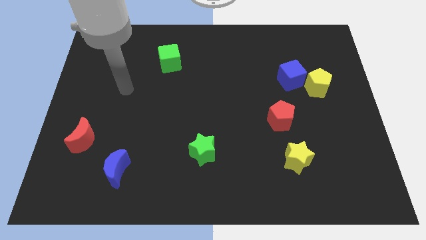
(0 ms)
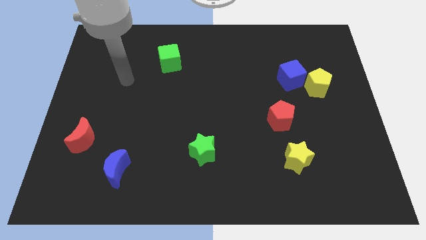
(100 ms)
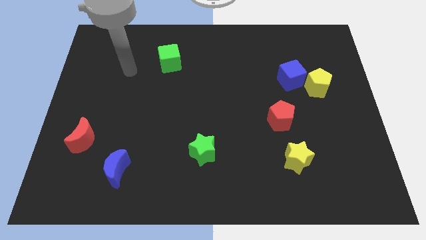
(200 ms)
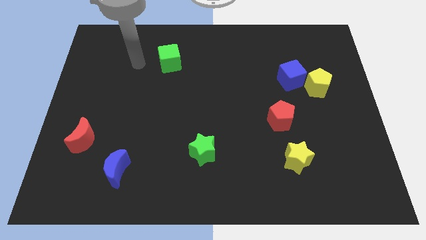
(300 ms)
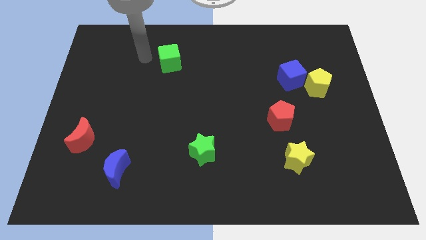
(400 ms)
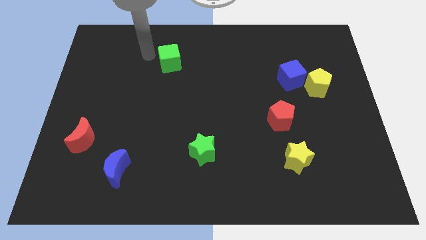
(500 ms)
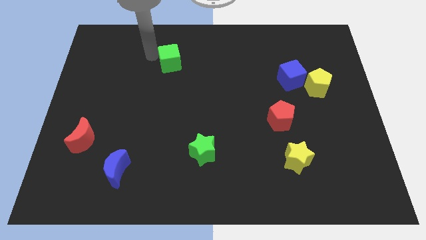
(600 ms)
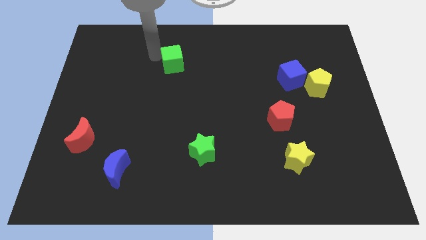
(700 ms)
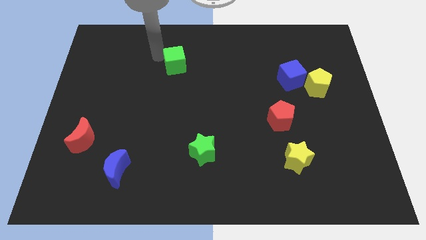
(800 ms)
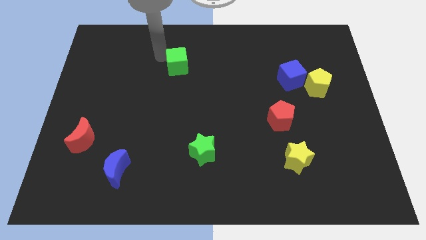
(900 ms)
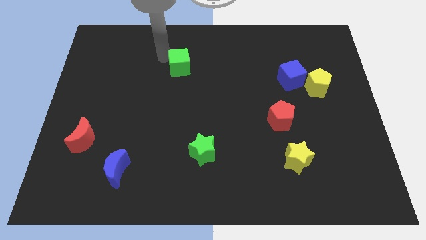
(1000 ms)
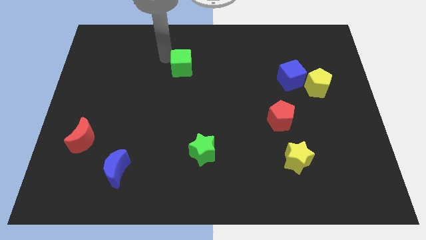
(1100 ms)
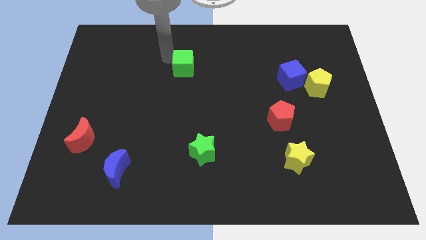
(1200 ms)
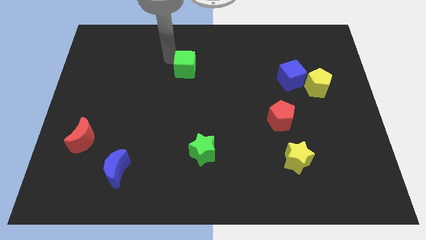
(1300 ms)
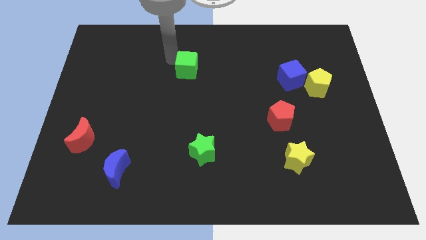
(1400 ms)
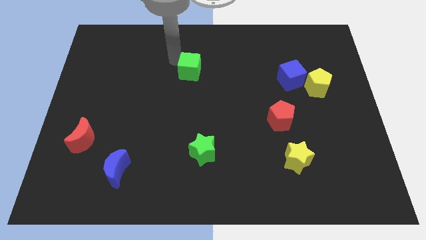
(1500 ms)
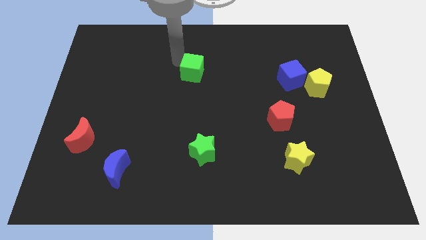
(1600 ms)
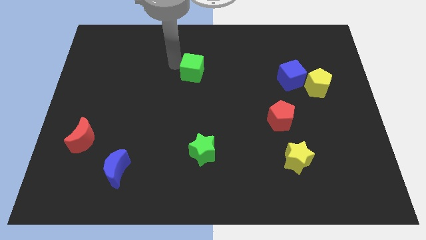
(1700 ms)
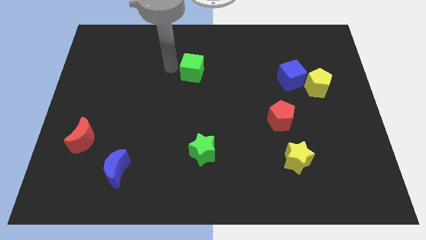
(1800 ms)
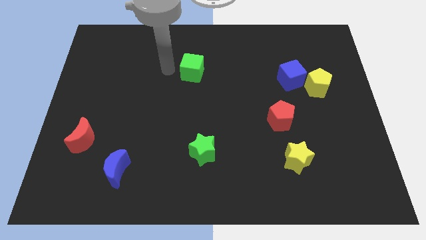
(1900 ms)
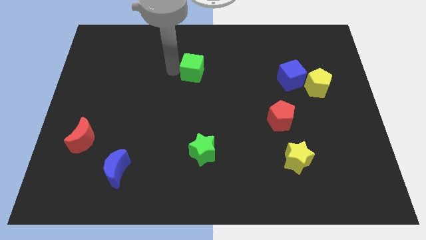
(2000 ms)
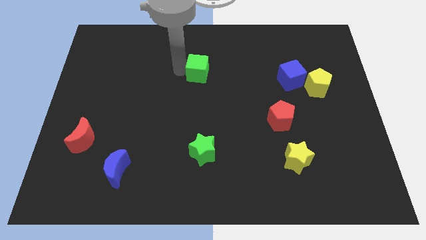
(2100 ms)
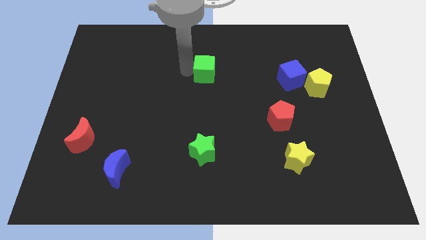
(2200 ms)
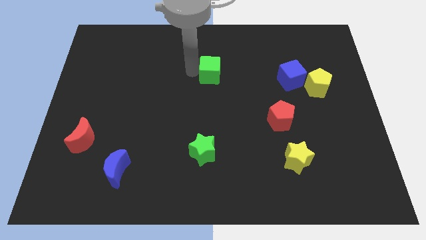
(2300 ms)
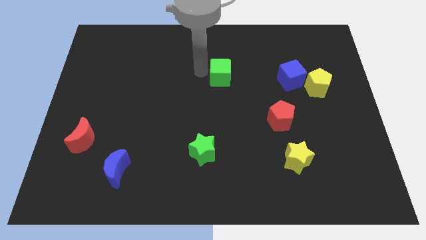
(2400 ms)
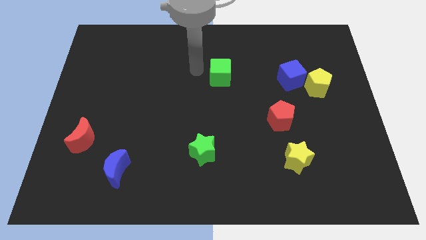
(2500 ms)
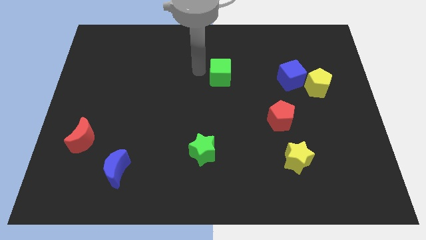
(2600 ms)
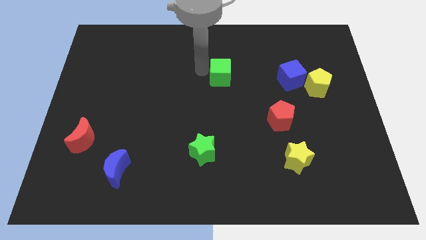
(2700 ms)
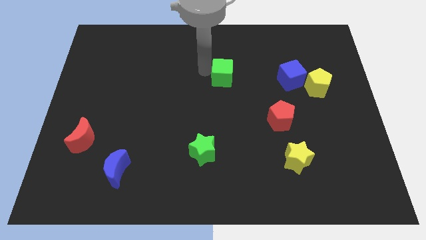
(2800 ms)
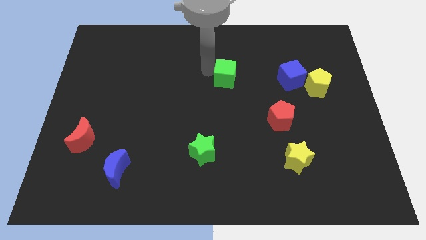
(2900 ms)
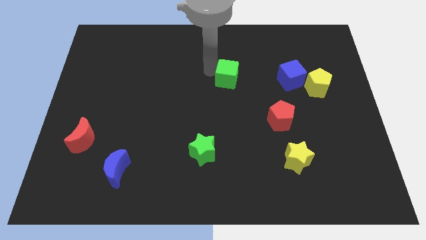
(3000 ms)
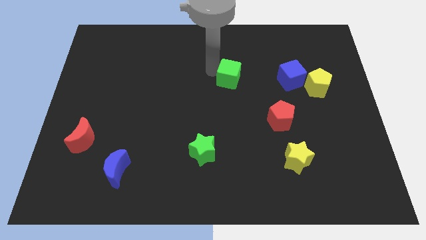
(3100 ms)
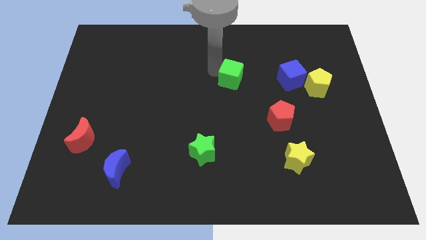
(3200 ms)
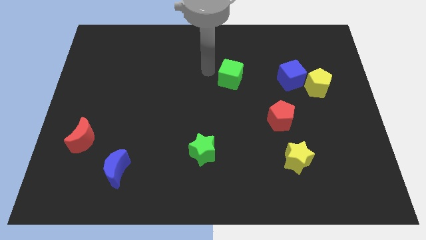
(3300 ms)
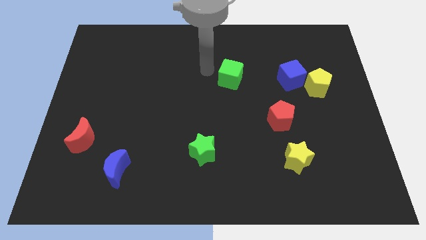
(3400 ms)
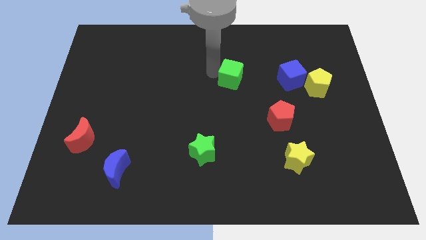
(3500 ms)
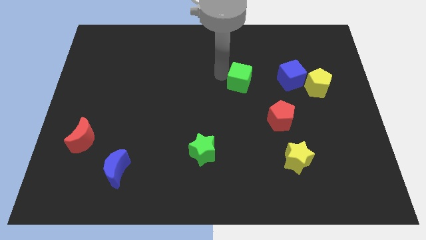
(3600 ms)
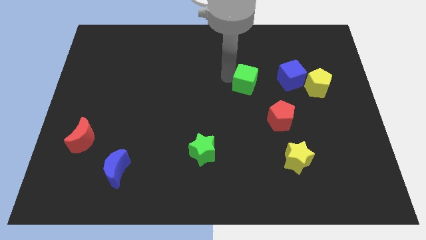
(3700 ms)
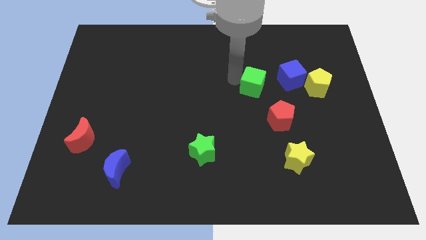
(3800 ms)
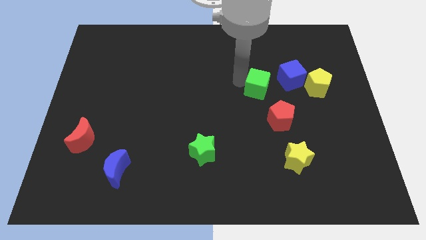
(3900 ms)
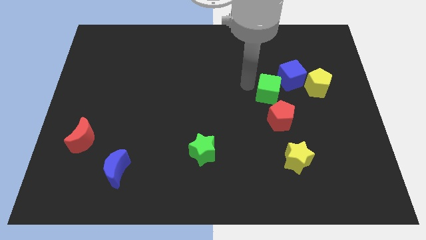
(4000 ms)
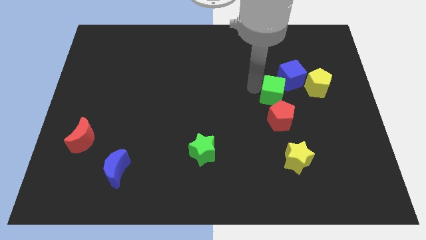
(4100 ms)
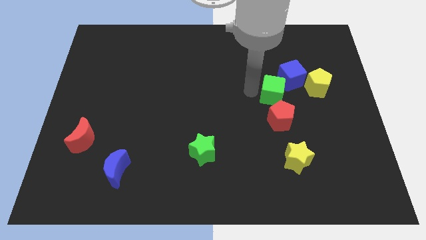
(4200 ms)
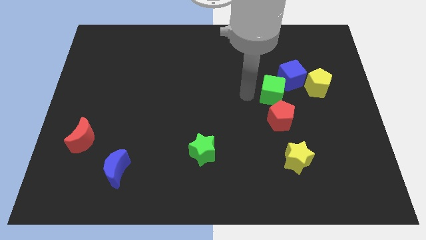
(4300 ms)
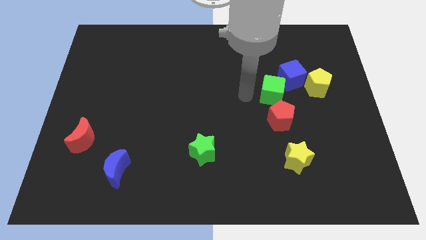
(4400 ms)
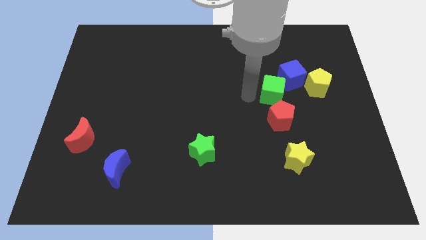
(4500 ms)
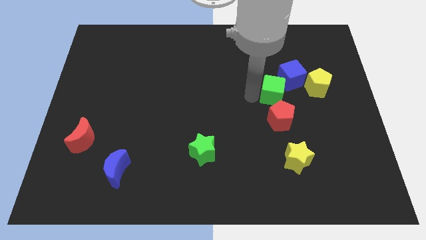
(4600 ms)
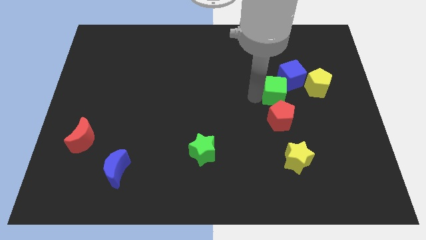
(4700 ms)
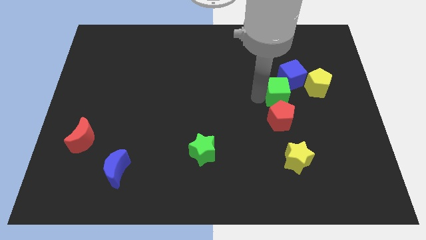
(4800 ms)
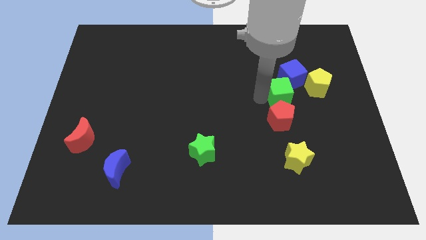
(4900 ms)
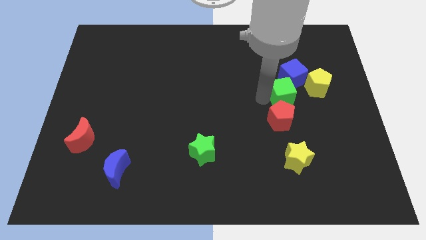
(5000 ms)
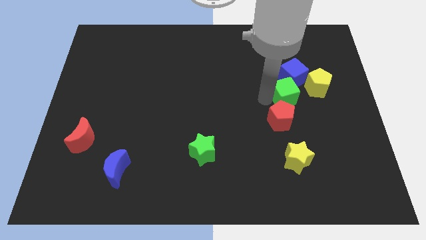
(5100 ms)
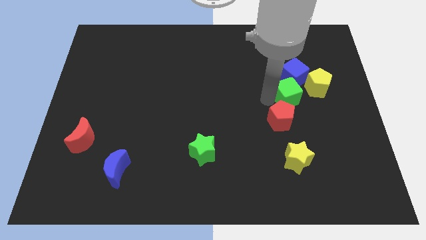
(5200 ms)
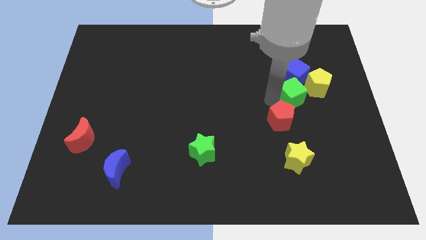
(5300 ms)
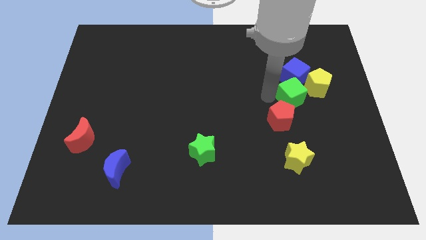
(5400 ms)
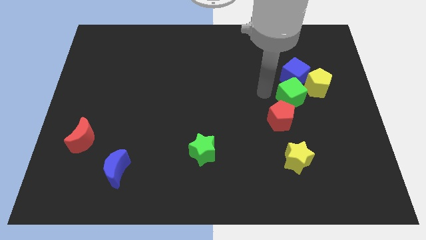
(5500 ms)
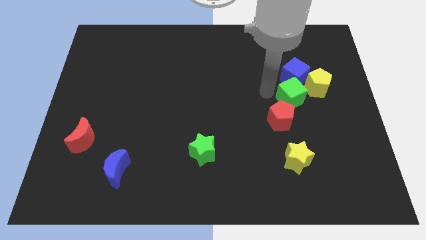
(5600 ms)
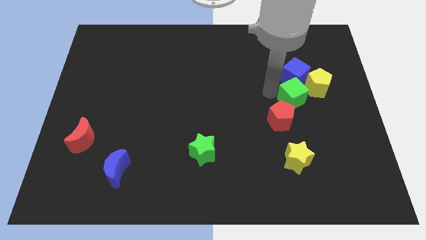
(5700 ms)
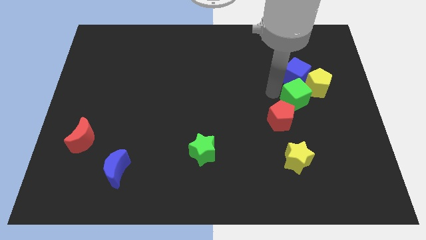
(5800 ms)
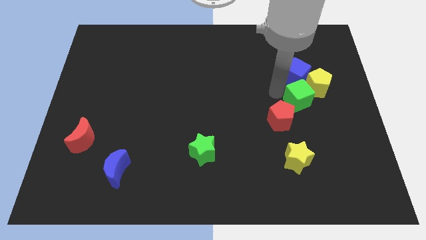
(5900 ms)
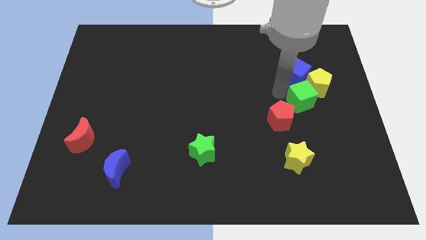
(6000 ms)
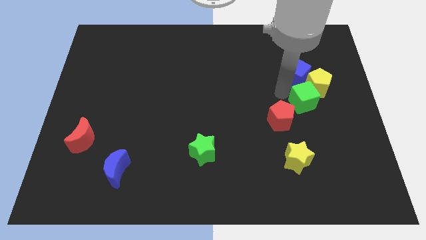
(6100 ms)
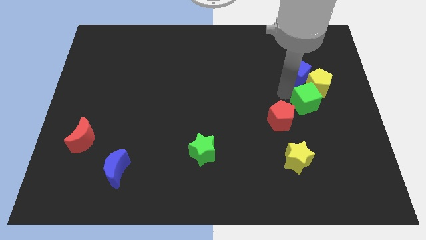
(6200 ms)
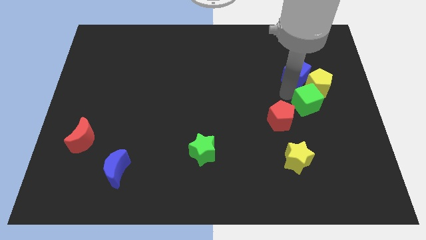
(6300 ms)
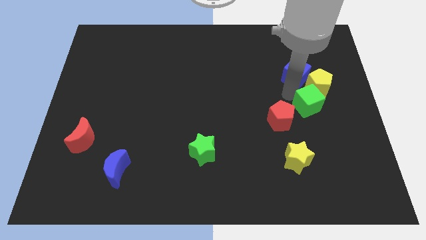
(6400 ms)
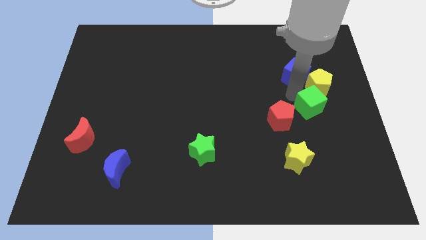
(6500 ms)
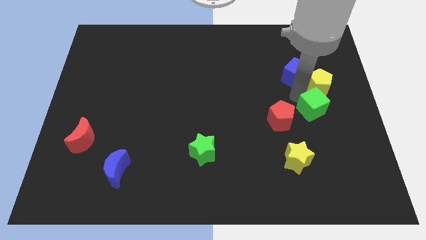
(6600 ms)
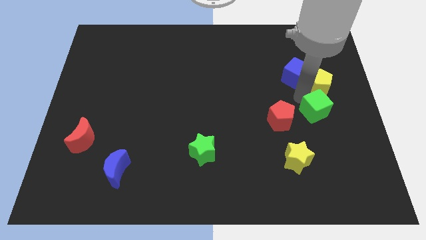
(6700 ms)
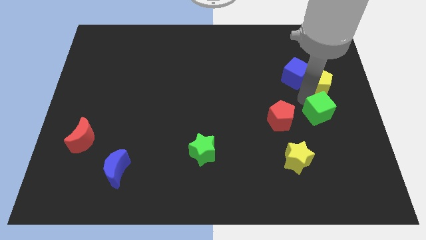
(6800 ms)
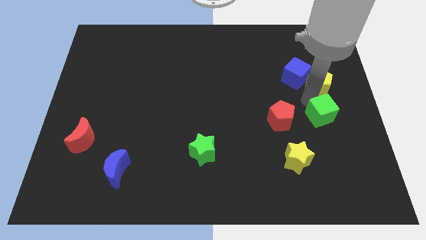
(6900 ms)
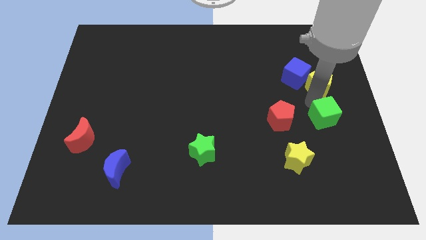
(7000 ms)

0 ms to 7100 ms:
move the green cube to the center right
